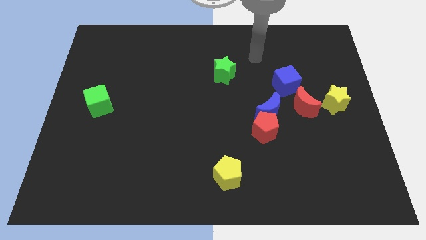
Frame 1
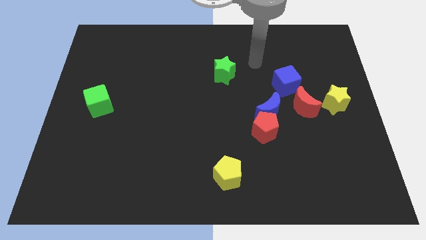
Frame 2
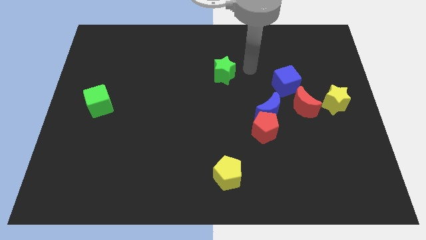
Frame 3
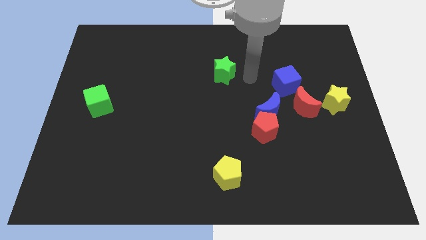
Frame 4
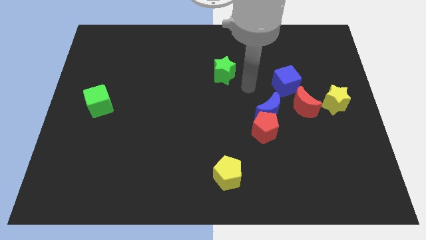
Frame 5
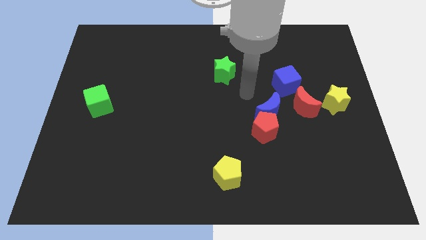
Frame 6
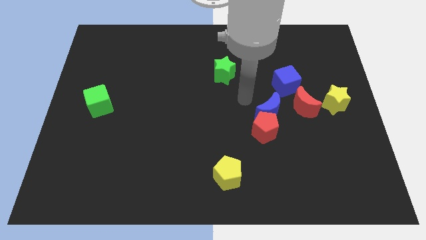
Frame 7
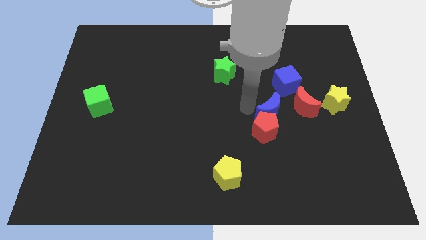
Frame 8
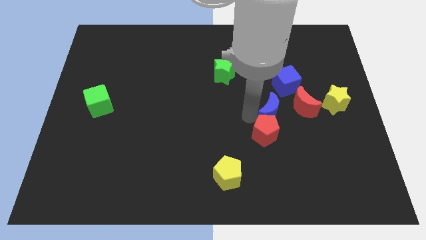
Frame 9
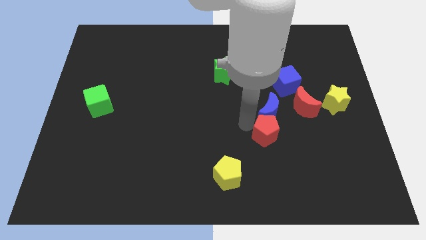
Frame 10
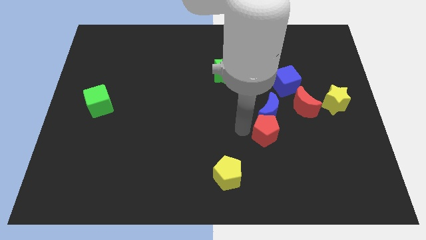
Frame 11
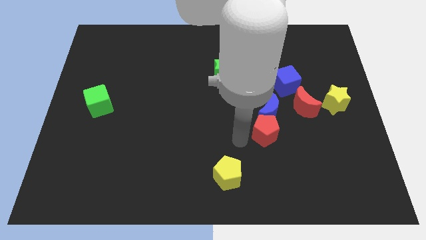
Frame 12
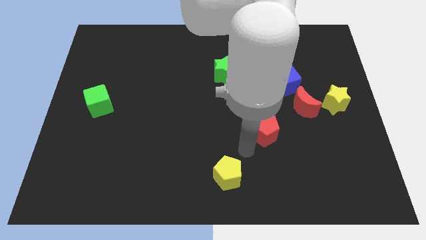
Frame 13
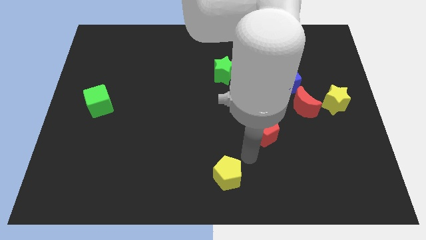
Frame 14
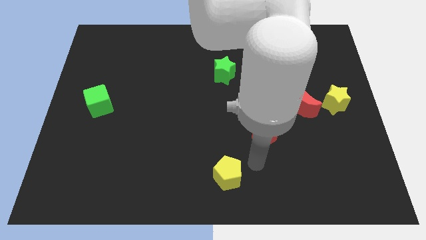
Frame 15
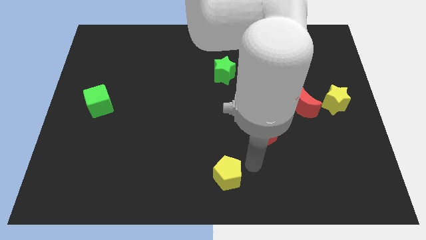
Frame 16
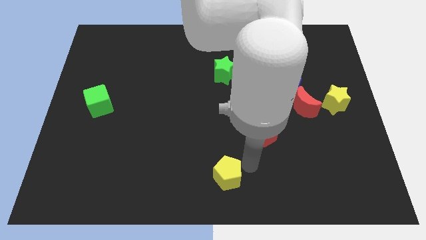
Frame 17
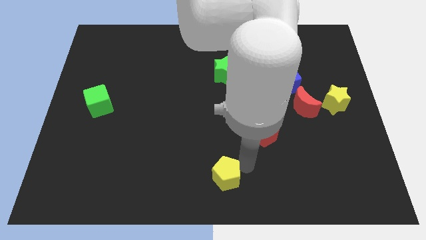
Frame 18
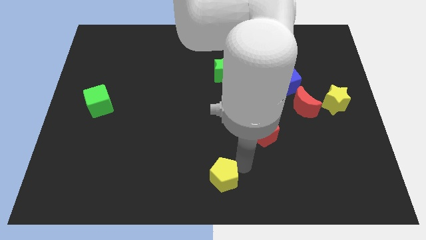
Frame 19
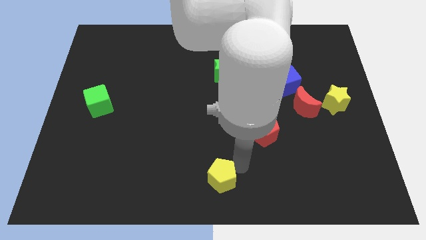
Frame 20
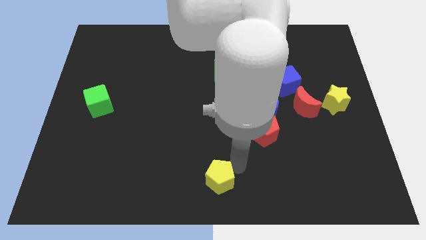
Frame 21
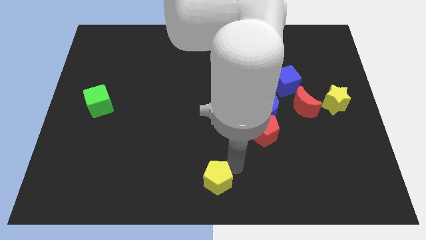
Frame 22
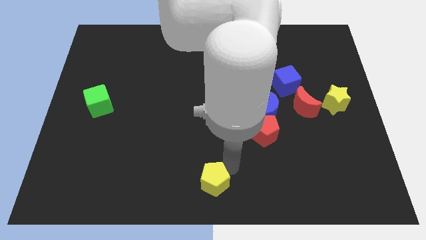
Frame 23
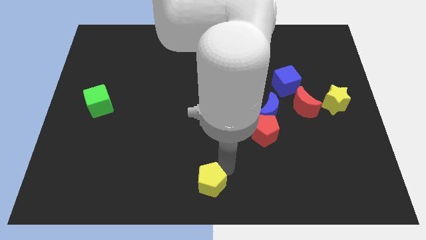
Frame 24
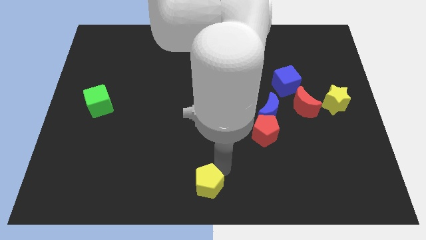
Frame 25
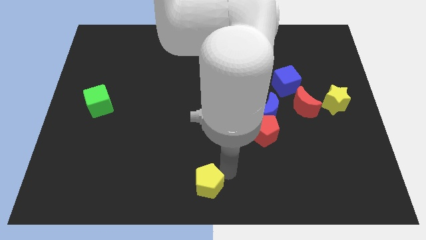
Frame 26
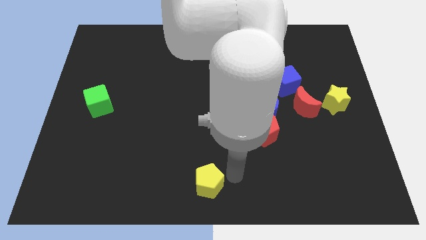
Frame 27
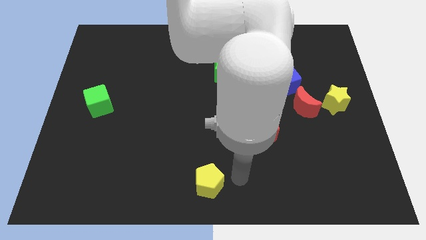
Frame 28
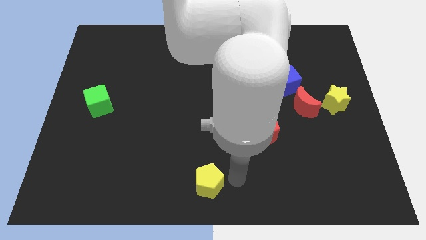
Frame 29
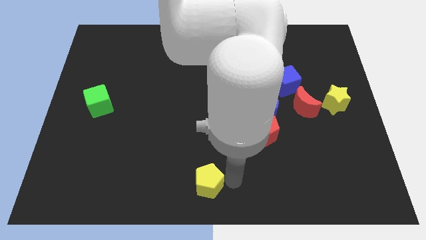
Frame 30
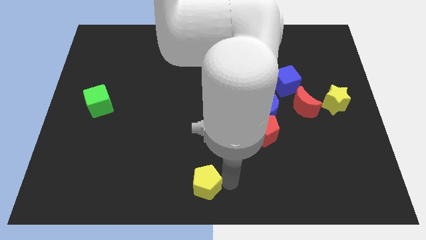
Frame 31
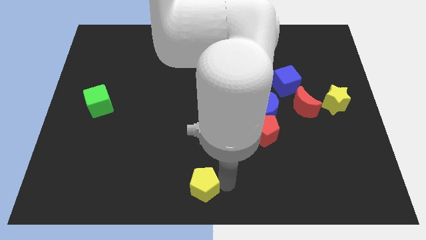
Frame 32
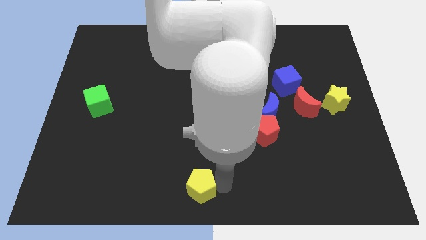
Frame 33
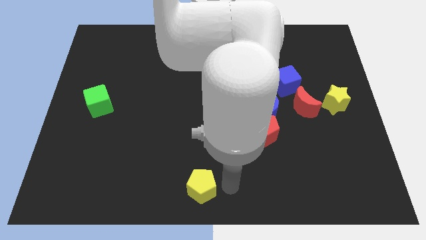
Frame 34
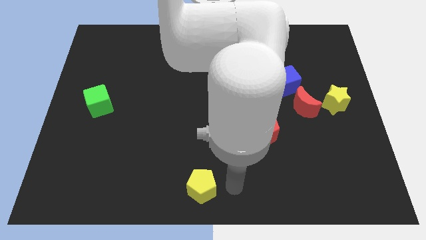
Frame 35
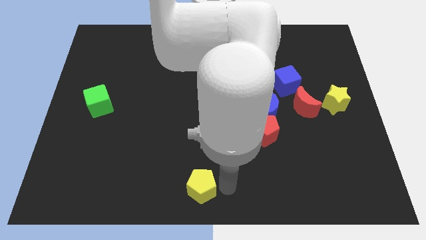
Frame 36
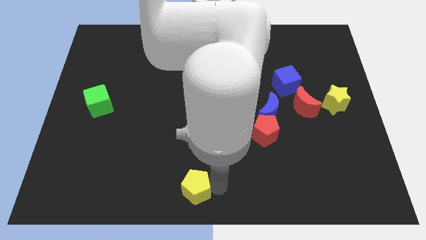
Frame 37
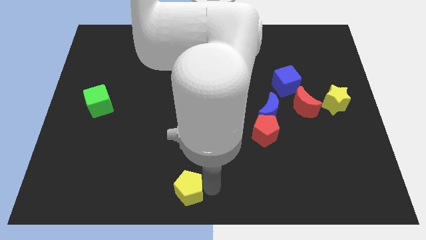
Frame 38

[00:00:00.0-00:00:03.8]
slightly slide the yellow pentagon left

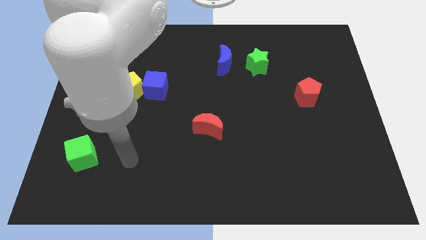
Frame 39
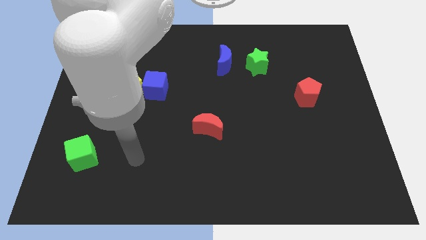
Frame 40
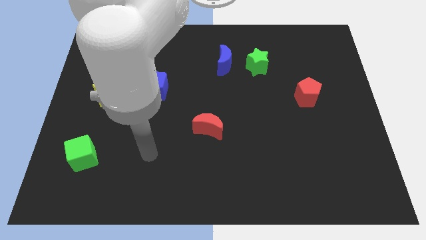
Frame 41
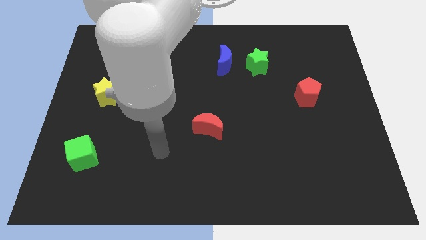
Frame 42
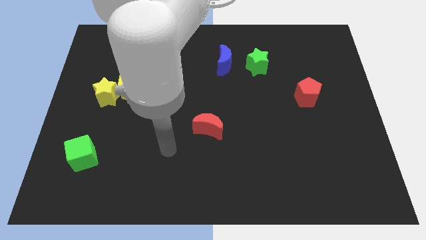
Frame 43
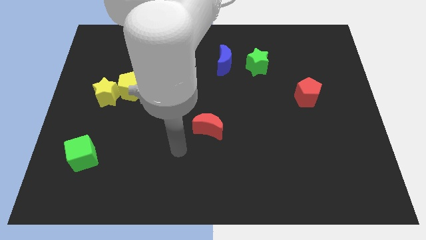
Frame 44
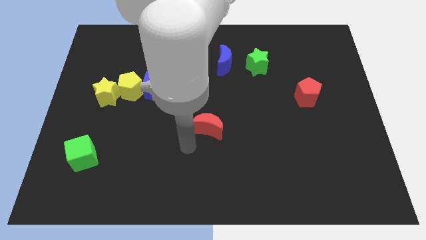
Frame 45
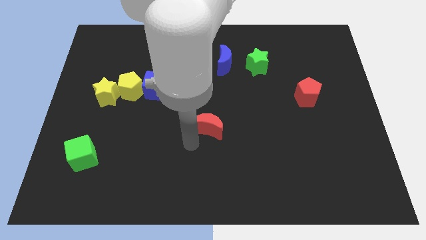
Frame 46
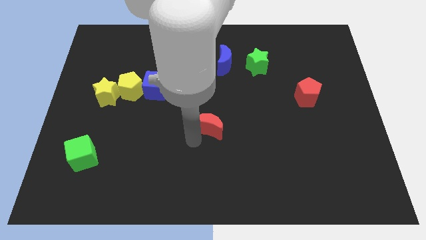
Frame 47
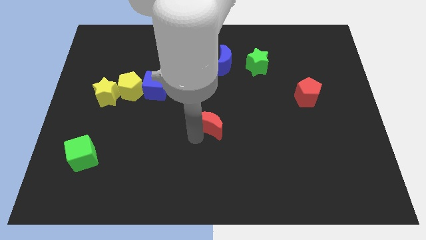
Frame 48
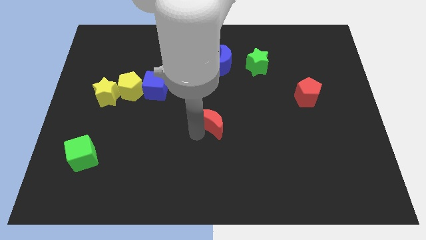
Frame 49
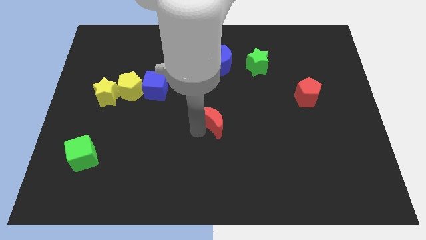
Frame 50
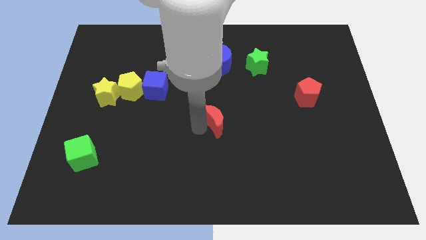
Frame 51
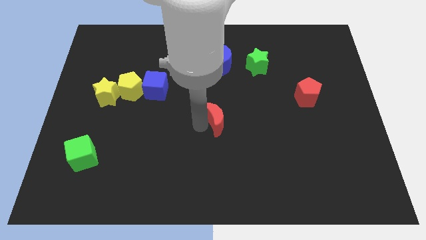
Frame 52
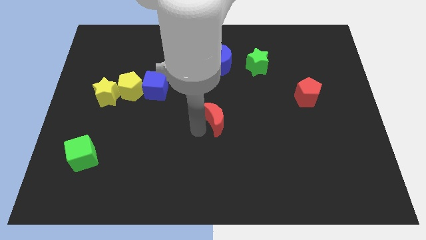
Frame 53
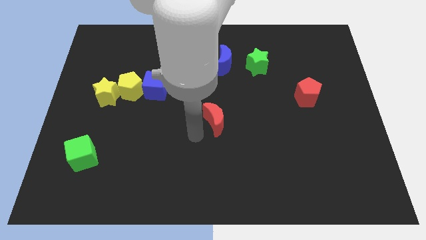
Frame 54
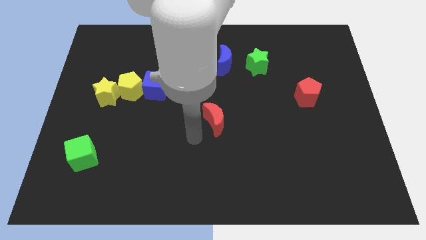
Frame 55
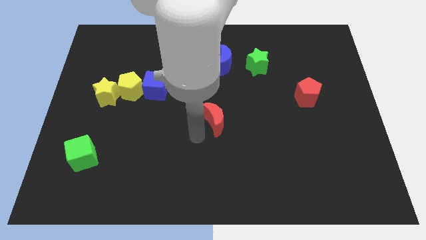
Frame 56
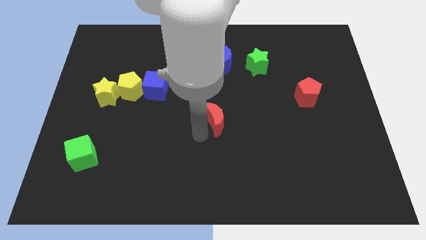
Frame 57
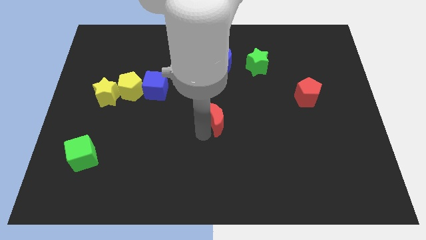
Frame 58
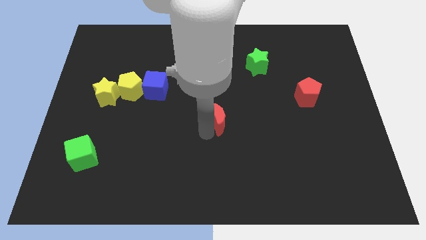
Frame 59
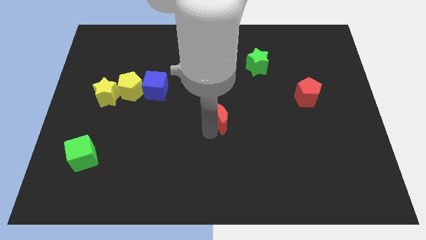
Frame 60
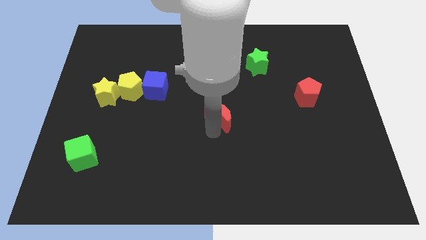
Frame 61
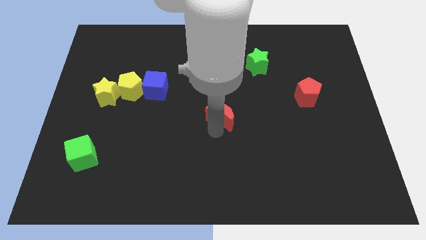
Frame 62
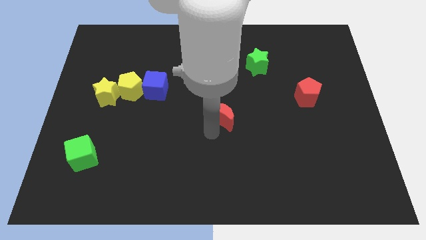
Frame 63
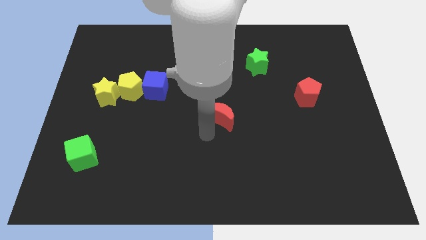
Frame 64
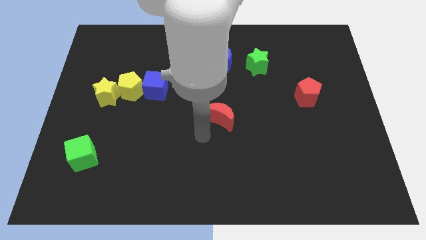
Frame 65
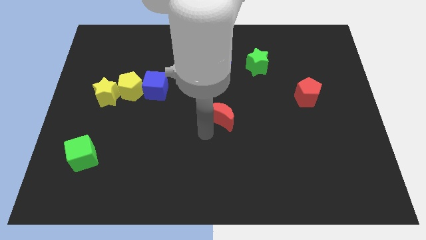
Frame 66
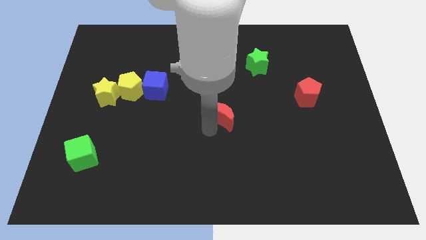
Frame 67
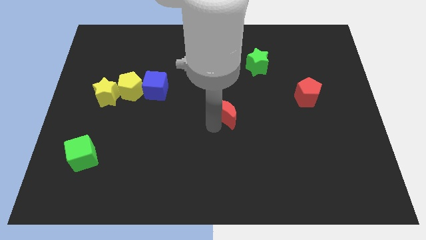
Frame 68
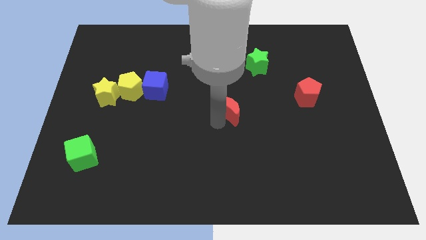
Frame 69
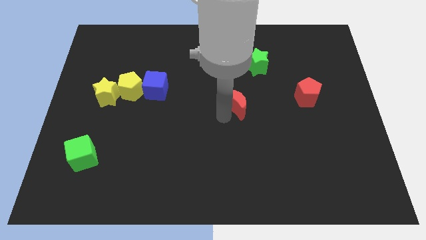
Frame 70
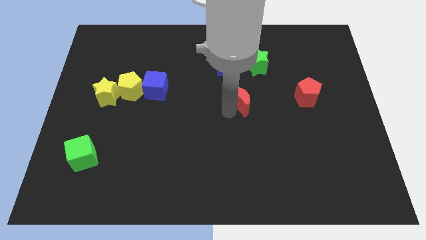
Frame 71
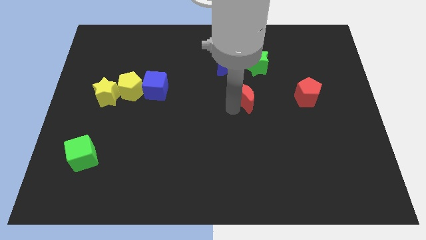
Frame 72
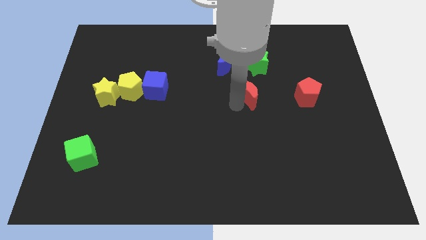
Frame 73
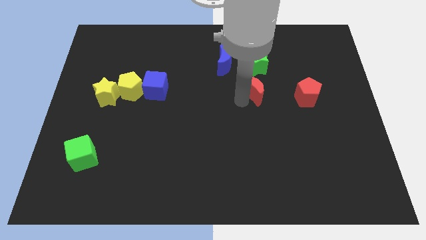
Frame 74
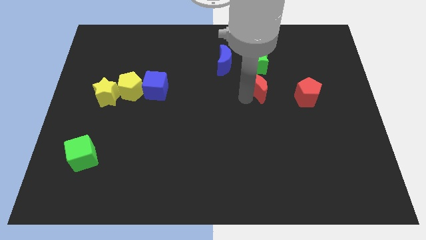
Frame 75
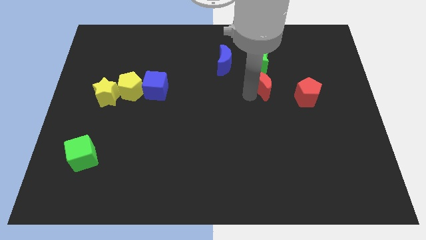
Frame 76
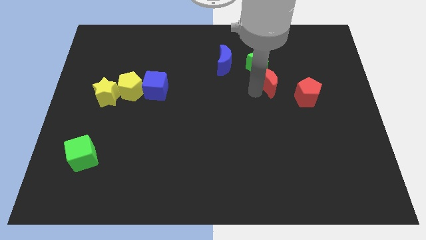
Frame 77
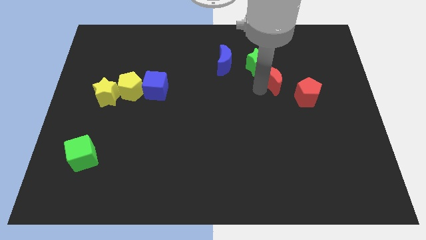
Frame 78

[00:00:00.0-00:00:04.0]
move the red moon diagonally up and right
